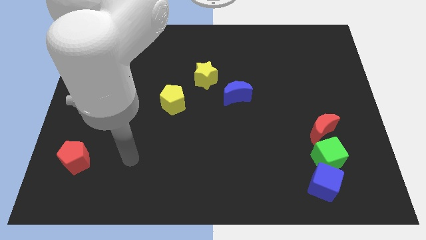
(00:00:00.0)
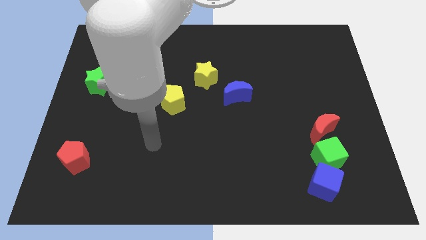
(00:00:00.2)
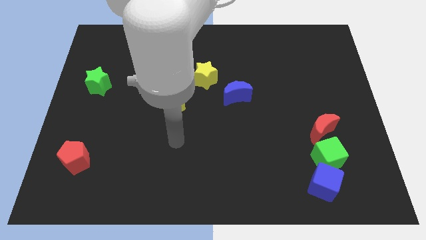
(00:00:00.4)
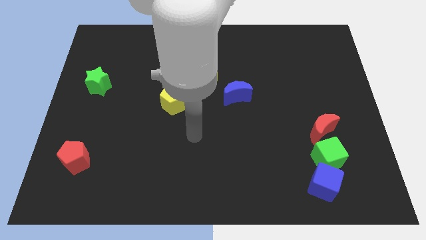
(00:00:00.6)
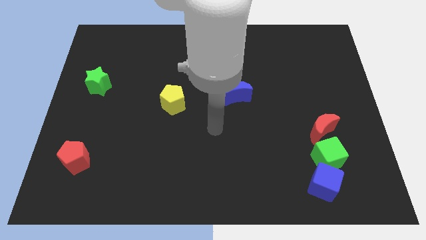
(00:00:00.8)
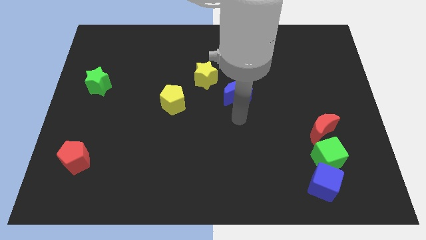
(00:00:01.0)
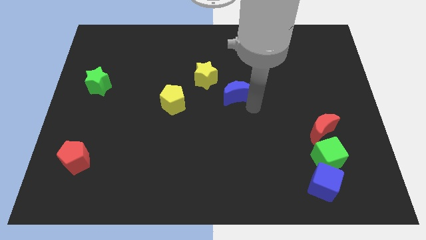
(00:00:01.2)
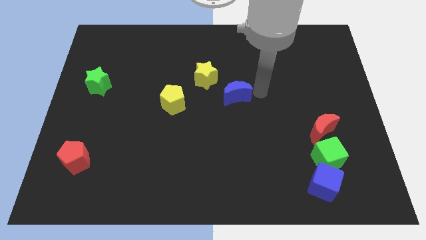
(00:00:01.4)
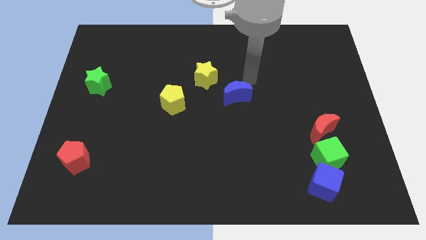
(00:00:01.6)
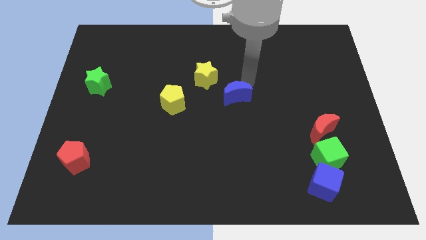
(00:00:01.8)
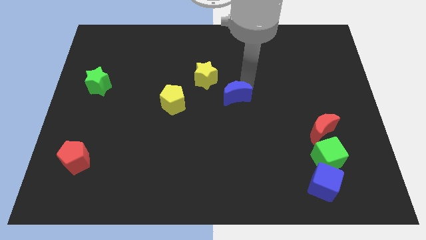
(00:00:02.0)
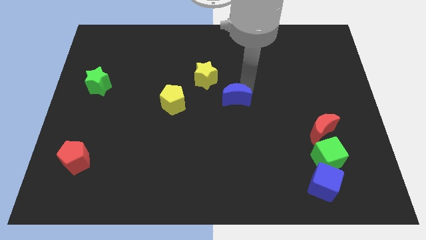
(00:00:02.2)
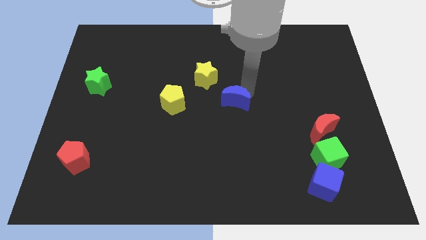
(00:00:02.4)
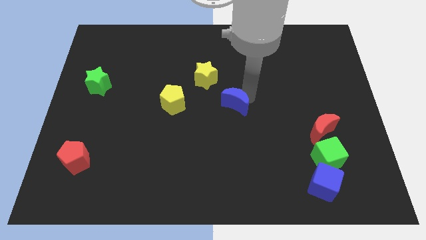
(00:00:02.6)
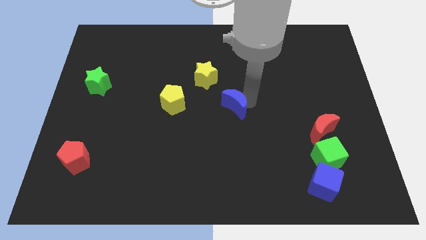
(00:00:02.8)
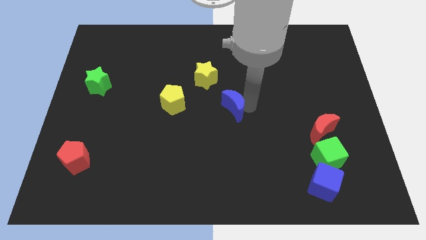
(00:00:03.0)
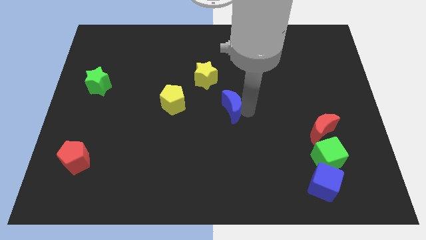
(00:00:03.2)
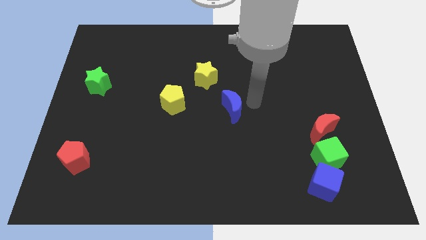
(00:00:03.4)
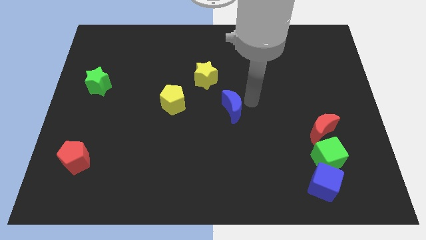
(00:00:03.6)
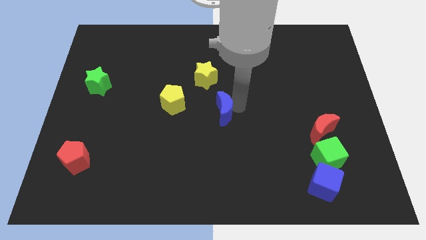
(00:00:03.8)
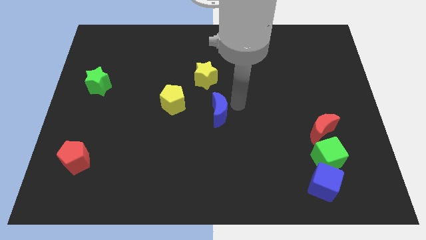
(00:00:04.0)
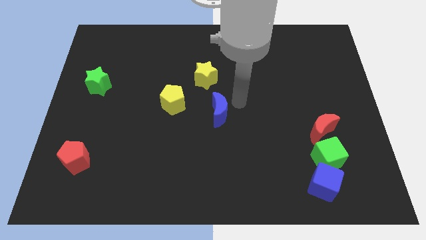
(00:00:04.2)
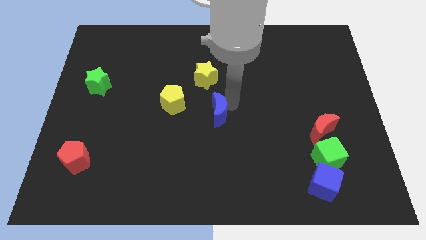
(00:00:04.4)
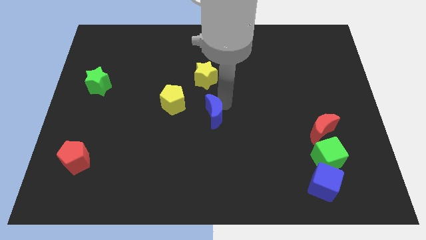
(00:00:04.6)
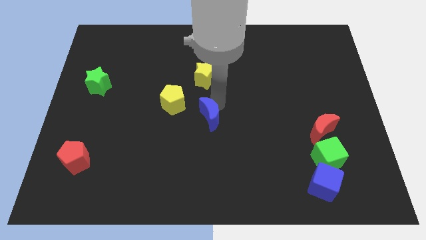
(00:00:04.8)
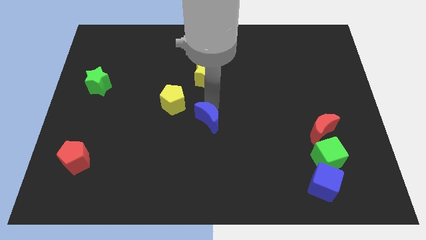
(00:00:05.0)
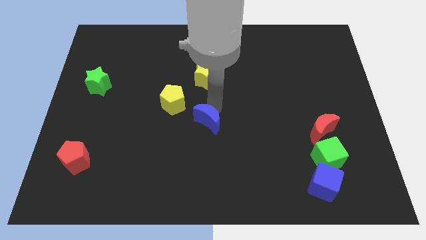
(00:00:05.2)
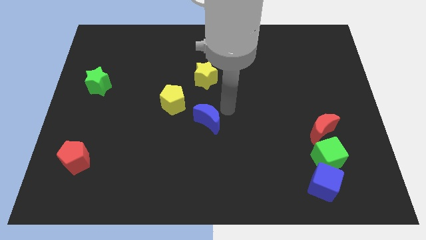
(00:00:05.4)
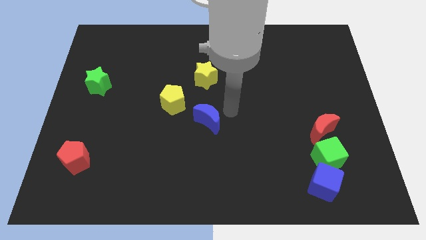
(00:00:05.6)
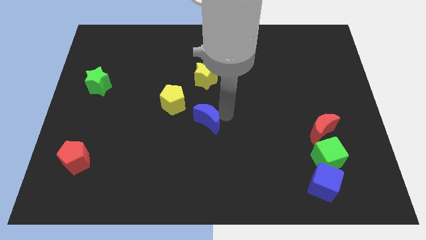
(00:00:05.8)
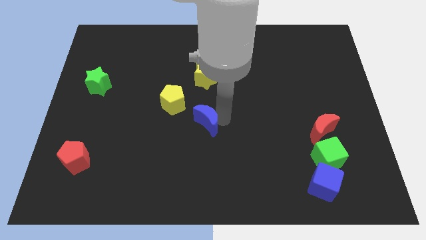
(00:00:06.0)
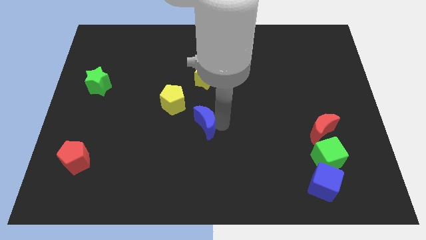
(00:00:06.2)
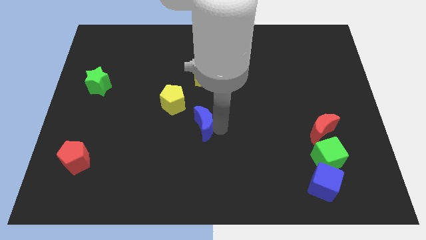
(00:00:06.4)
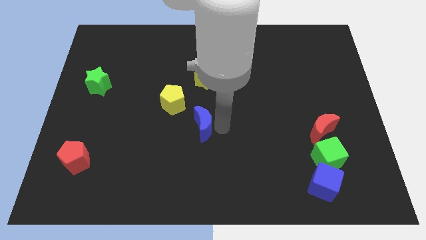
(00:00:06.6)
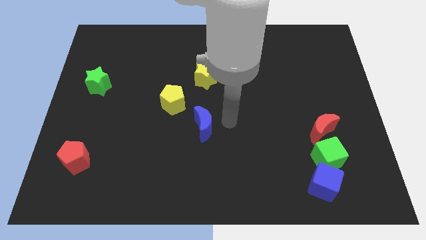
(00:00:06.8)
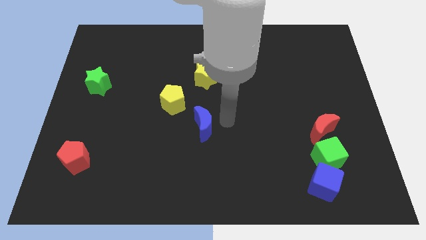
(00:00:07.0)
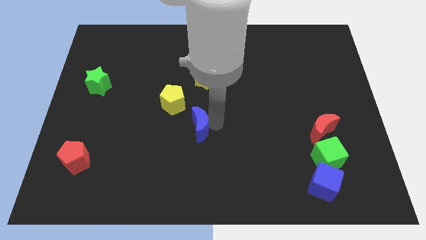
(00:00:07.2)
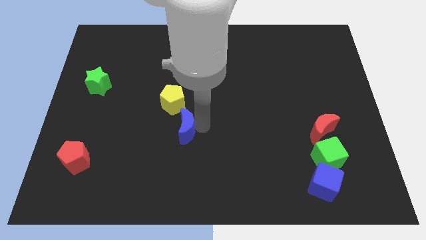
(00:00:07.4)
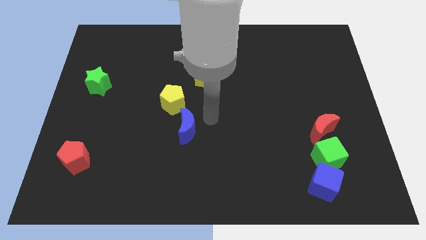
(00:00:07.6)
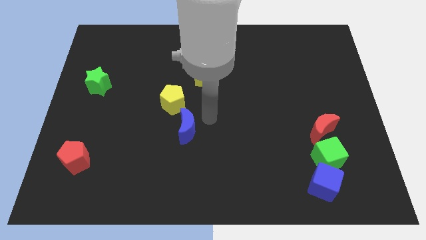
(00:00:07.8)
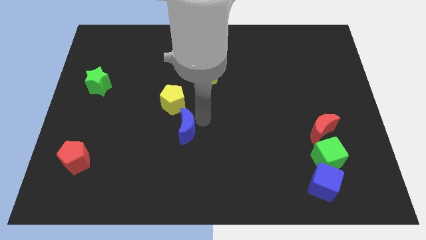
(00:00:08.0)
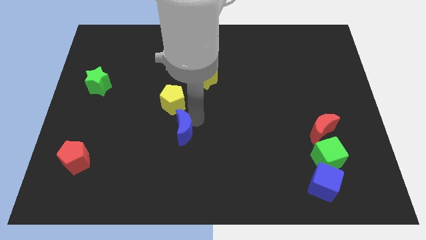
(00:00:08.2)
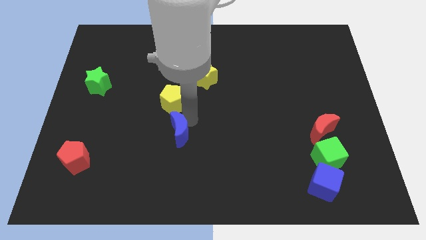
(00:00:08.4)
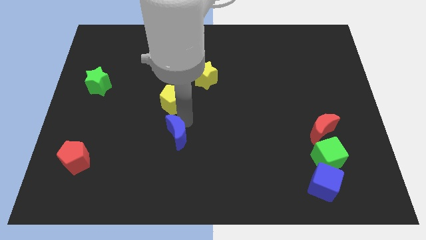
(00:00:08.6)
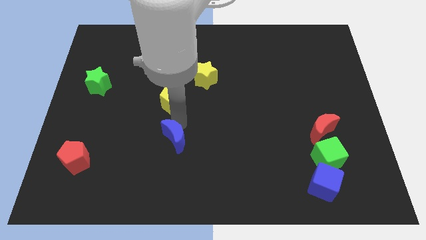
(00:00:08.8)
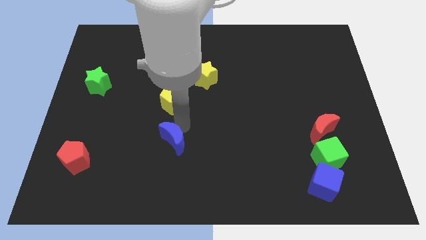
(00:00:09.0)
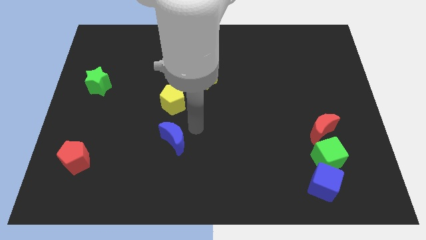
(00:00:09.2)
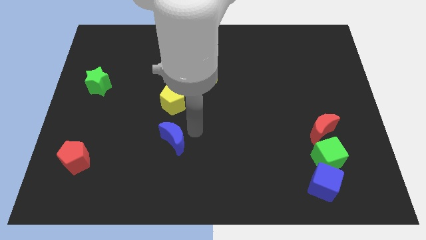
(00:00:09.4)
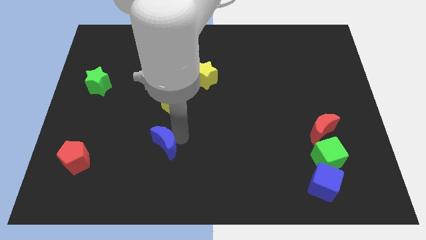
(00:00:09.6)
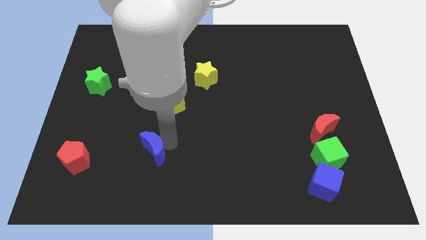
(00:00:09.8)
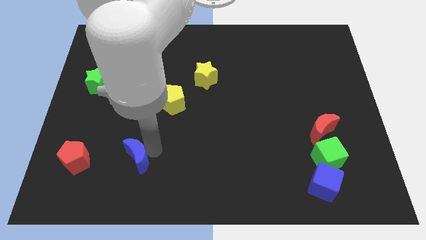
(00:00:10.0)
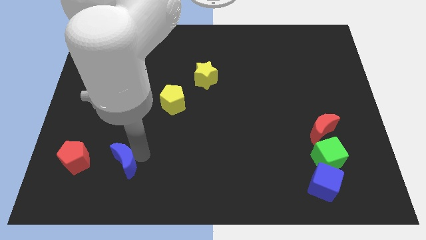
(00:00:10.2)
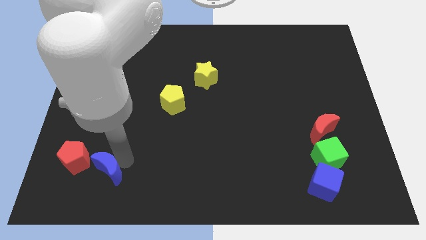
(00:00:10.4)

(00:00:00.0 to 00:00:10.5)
push the blue moon to the bottom right side of the red pentagon

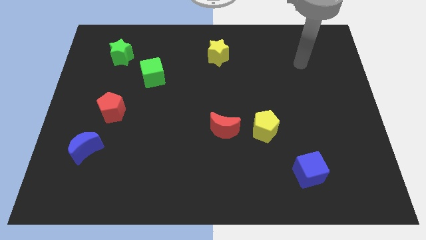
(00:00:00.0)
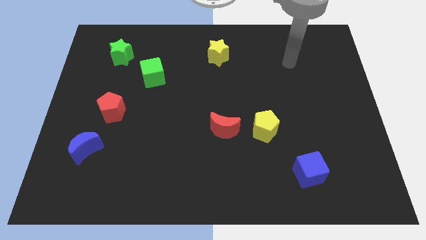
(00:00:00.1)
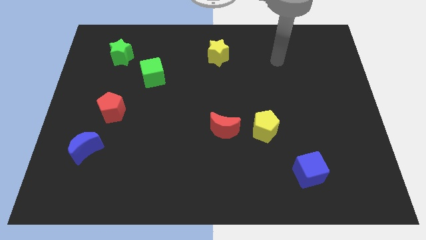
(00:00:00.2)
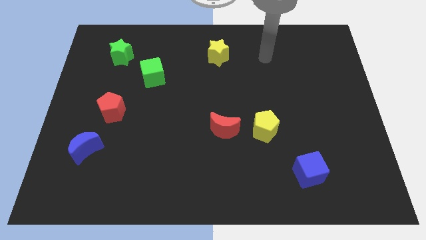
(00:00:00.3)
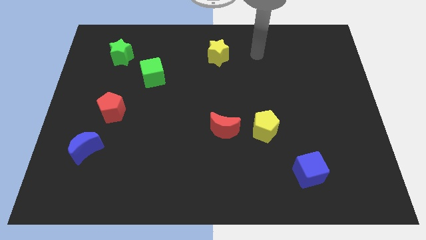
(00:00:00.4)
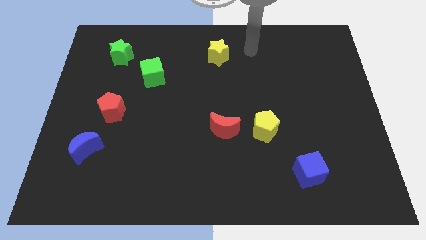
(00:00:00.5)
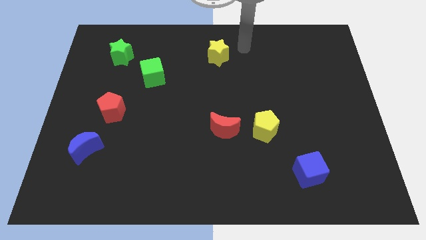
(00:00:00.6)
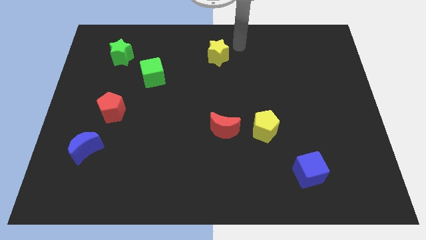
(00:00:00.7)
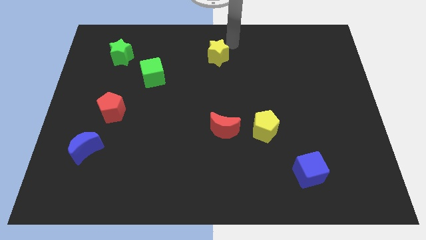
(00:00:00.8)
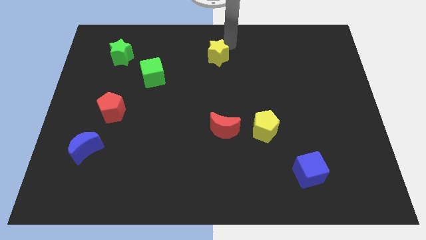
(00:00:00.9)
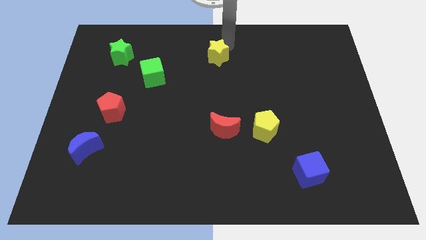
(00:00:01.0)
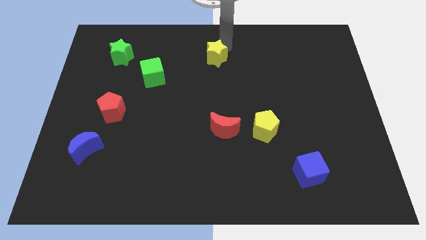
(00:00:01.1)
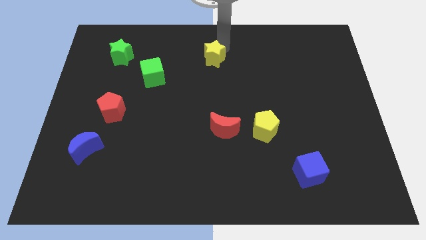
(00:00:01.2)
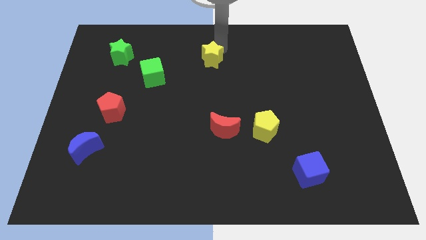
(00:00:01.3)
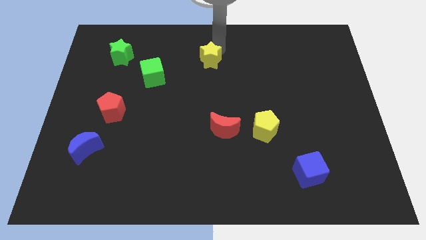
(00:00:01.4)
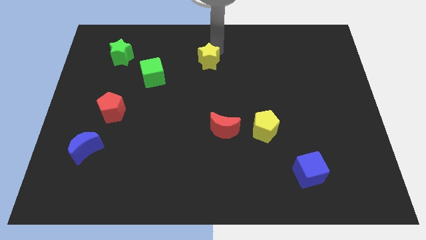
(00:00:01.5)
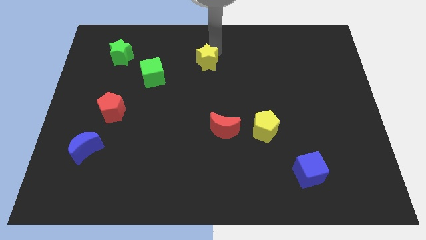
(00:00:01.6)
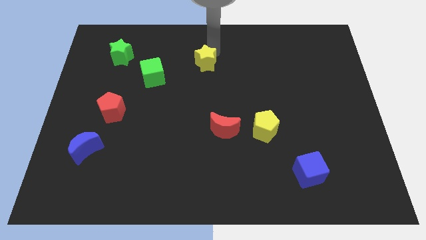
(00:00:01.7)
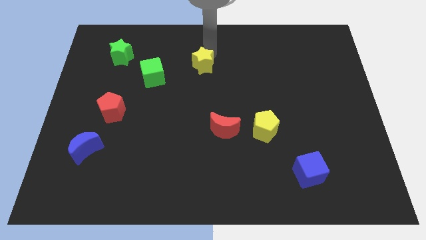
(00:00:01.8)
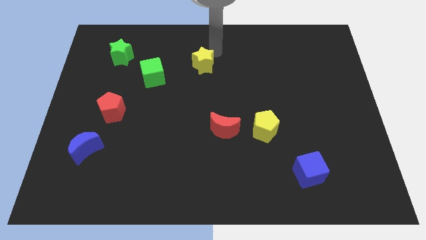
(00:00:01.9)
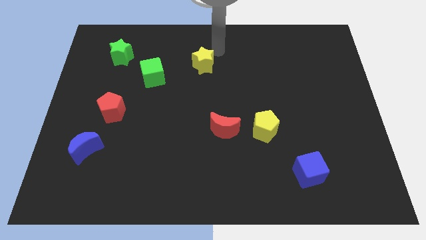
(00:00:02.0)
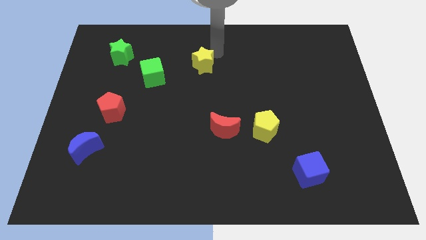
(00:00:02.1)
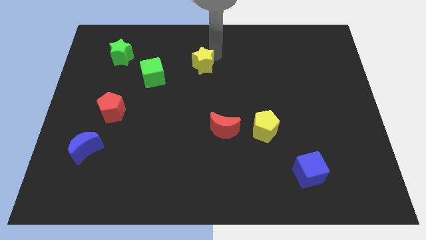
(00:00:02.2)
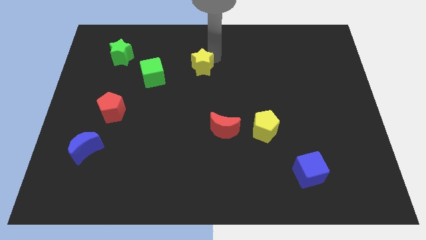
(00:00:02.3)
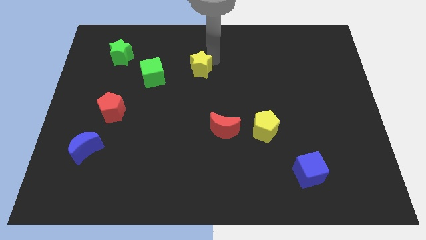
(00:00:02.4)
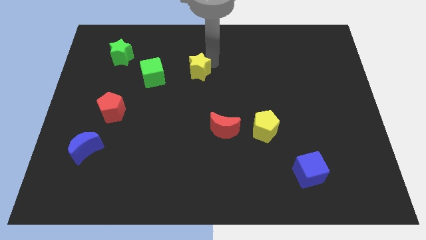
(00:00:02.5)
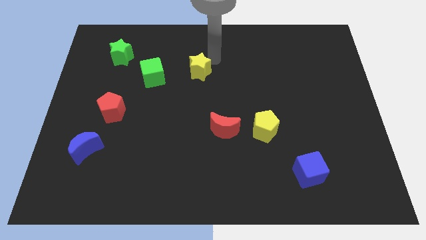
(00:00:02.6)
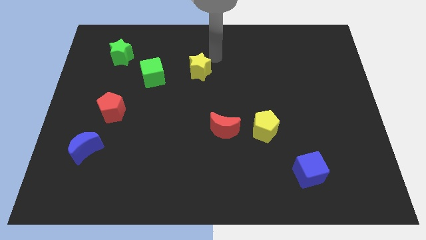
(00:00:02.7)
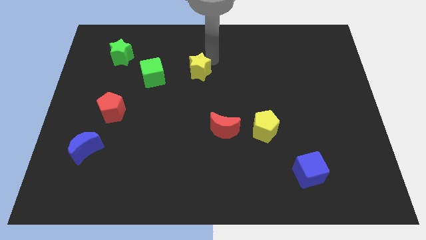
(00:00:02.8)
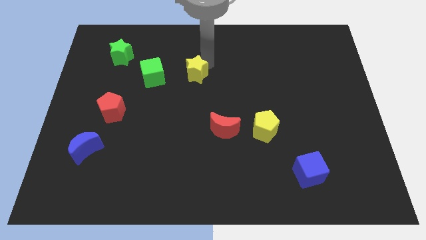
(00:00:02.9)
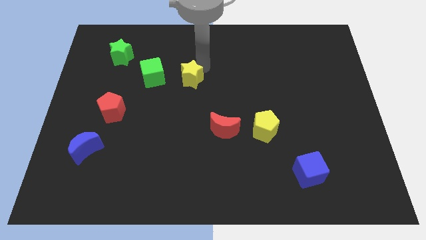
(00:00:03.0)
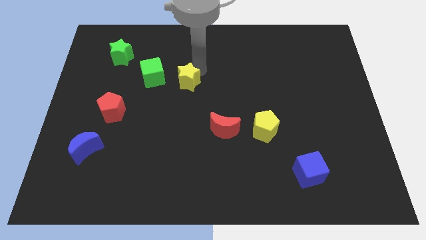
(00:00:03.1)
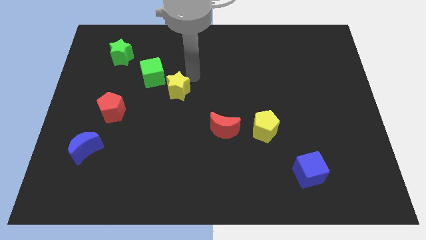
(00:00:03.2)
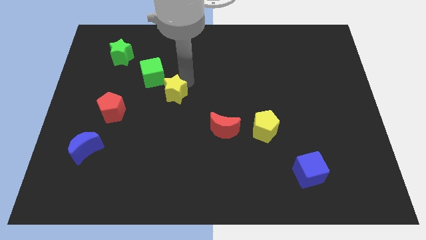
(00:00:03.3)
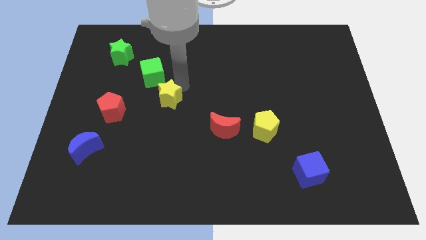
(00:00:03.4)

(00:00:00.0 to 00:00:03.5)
put the yellow star right of the red pentagon
